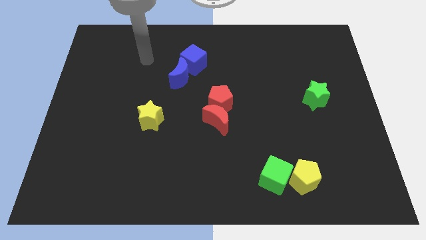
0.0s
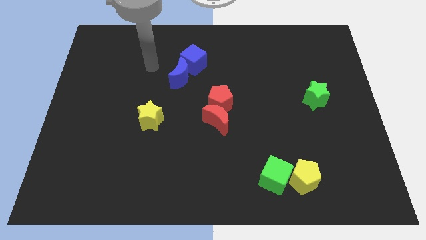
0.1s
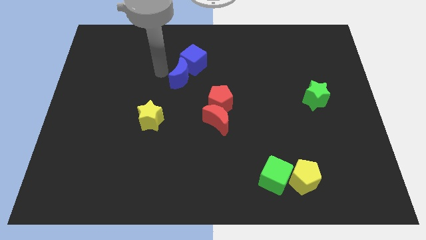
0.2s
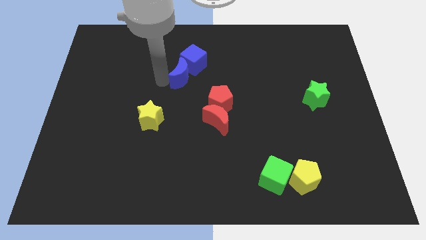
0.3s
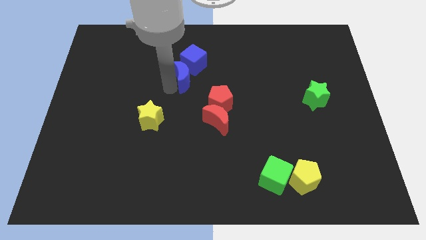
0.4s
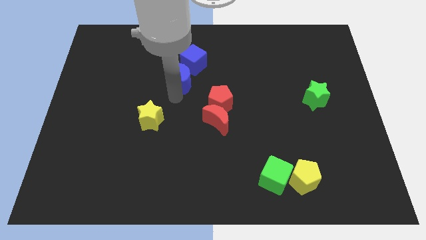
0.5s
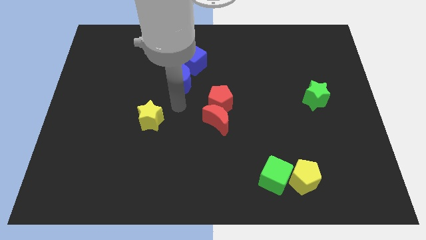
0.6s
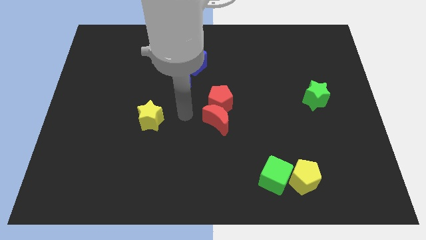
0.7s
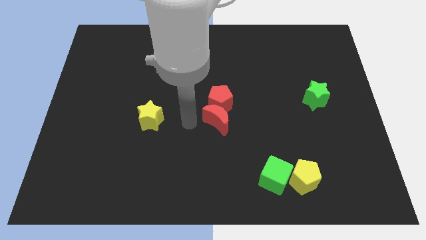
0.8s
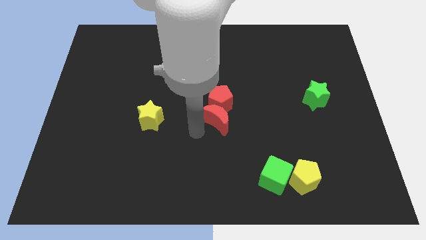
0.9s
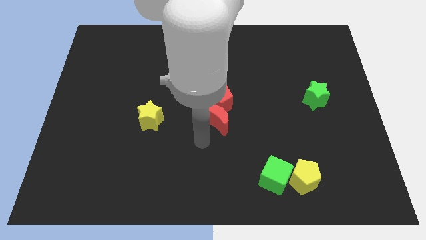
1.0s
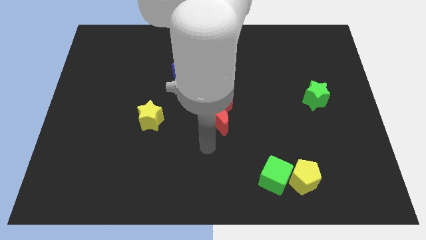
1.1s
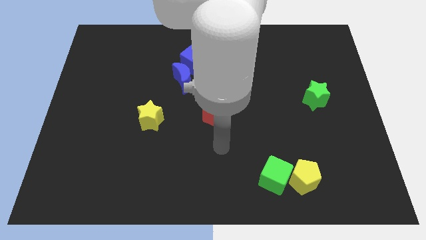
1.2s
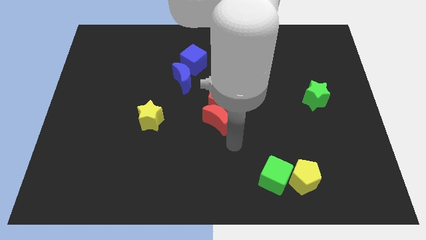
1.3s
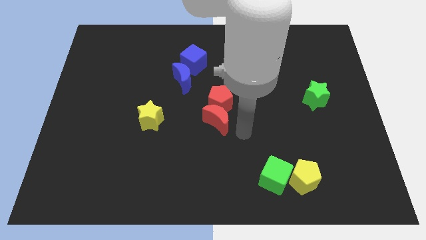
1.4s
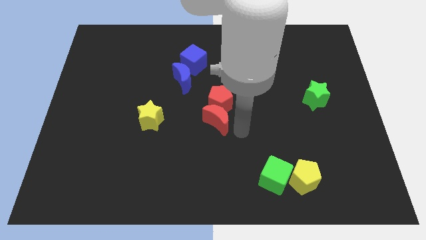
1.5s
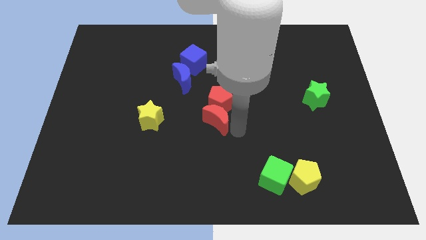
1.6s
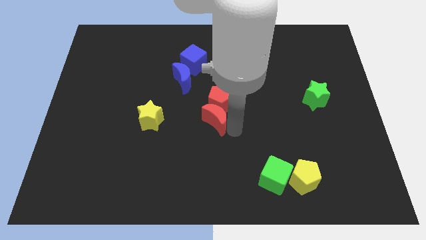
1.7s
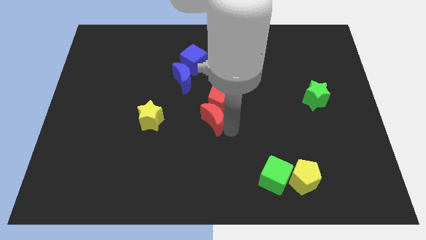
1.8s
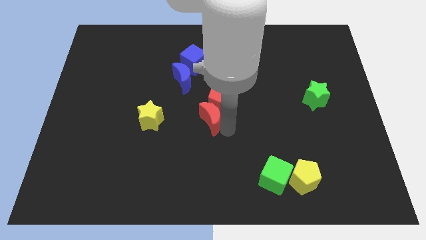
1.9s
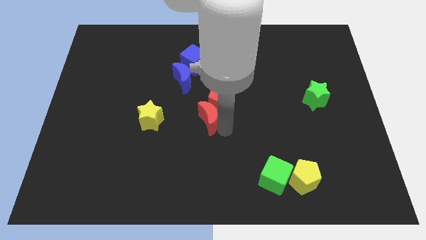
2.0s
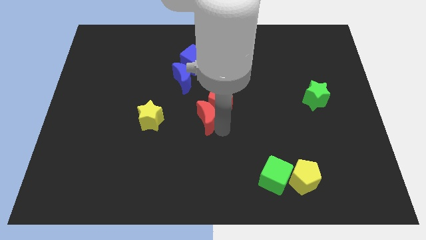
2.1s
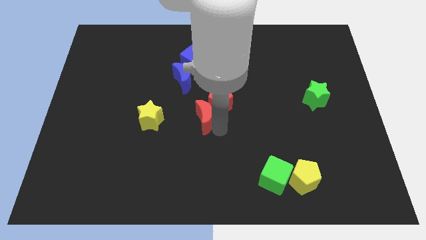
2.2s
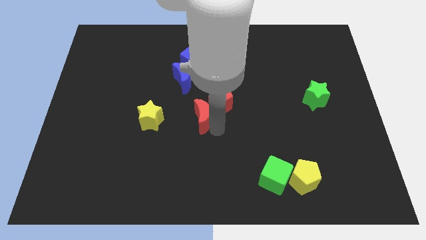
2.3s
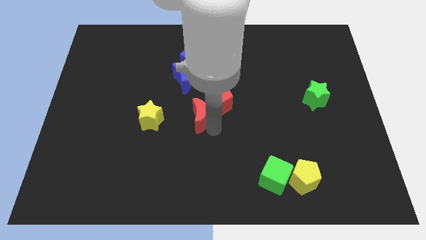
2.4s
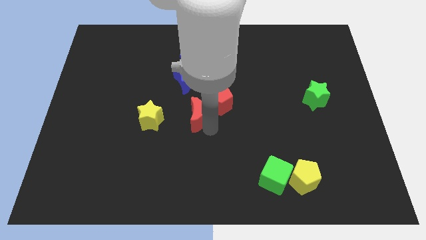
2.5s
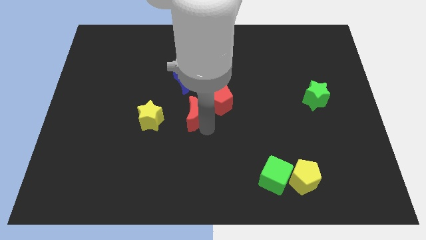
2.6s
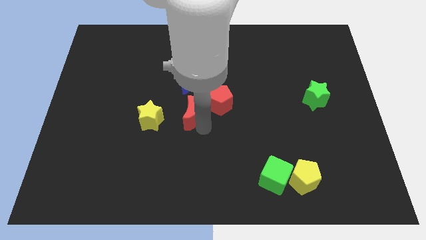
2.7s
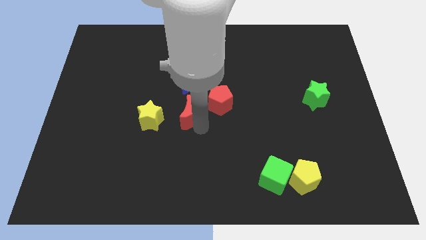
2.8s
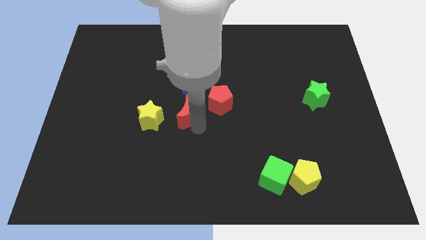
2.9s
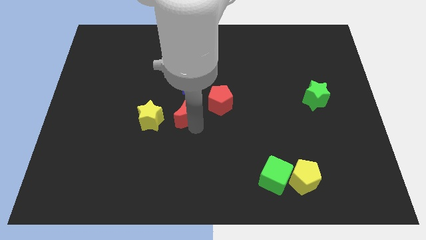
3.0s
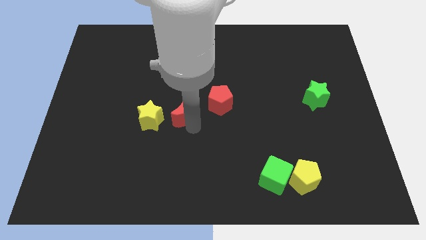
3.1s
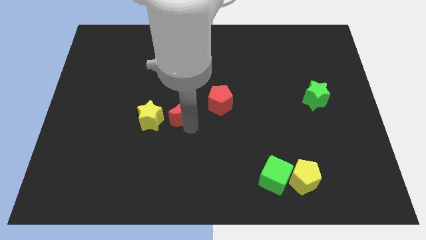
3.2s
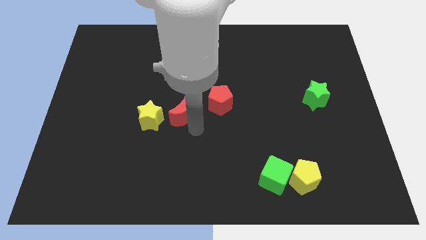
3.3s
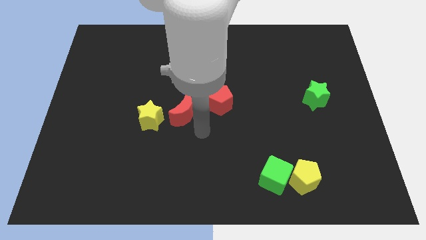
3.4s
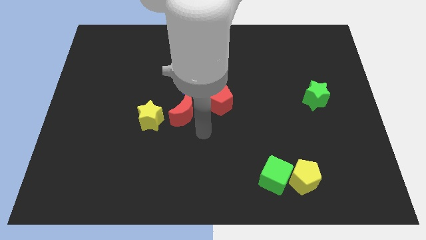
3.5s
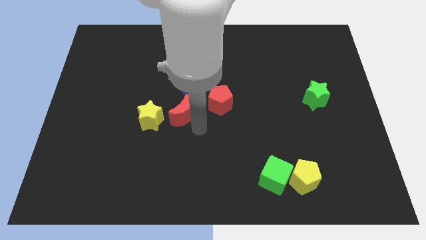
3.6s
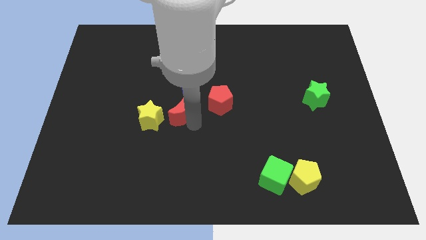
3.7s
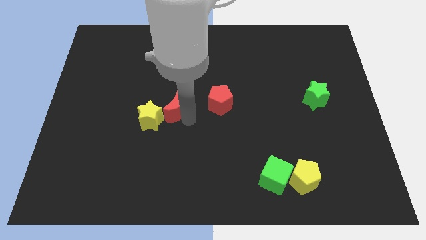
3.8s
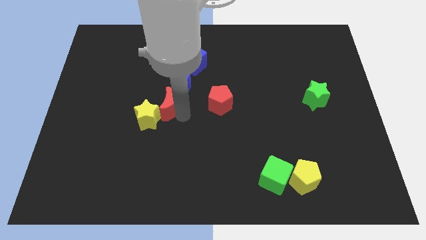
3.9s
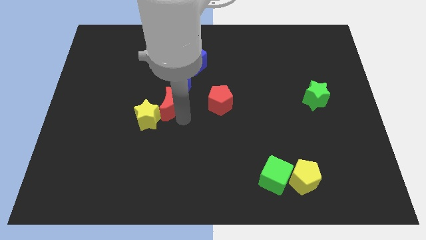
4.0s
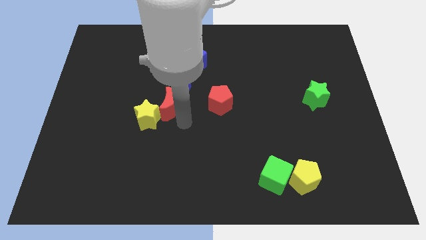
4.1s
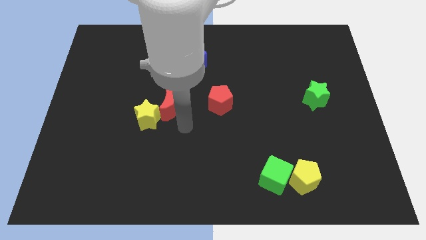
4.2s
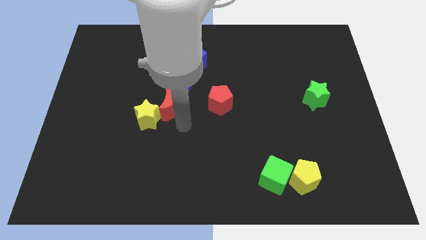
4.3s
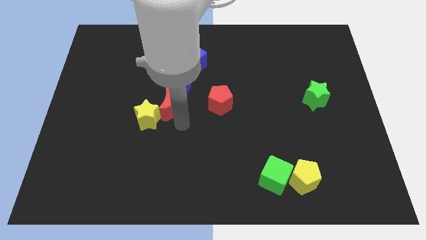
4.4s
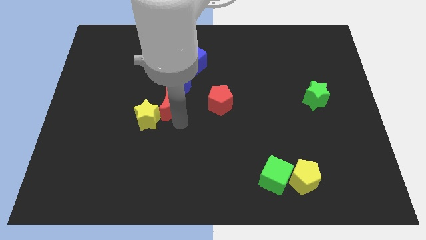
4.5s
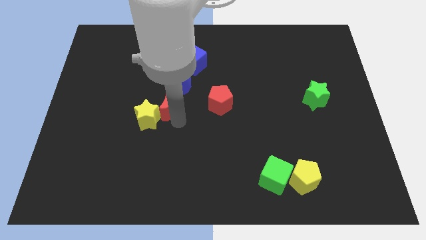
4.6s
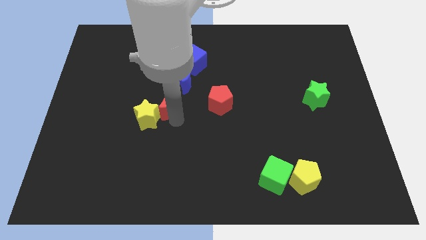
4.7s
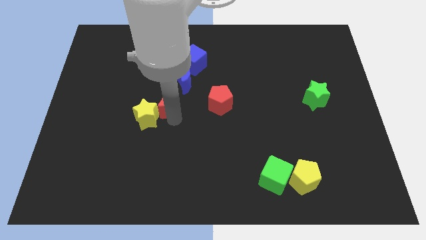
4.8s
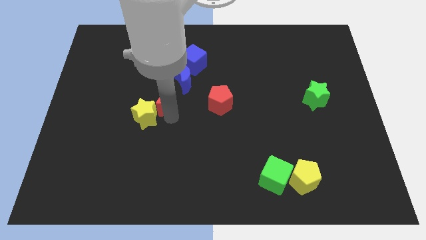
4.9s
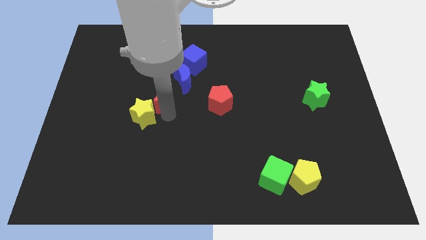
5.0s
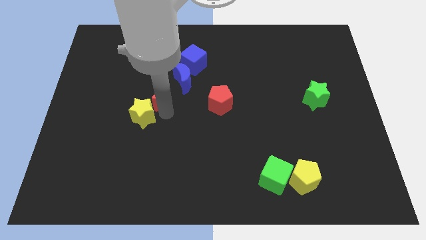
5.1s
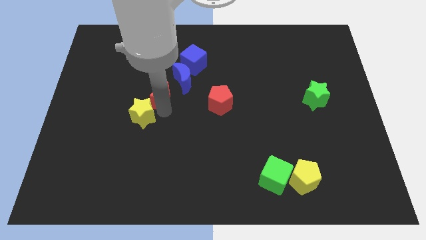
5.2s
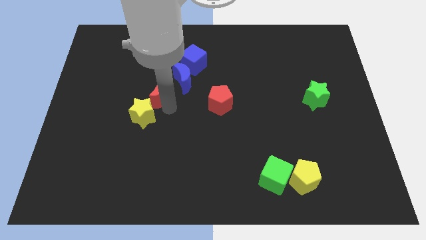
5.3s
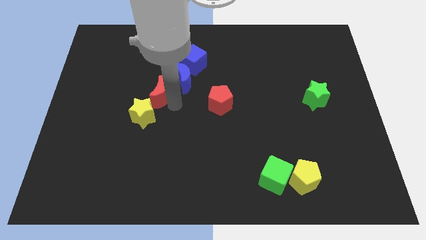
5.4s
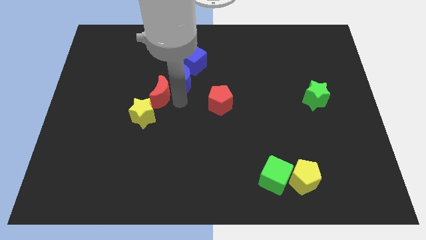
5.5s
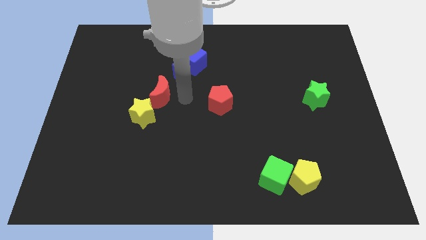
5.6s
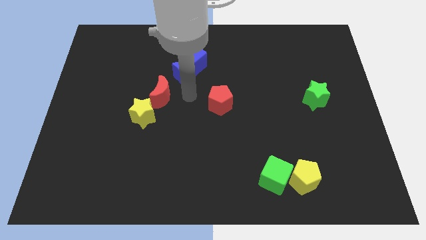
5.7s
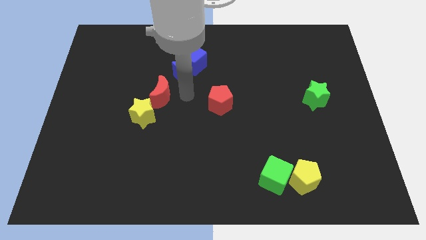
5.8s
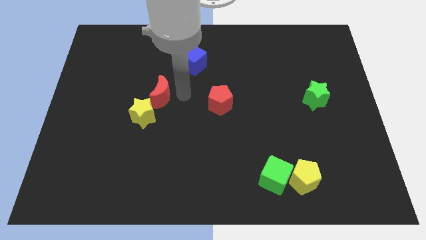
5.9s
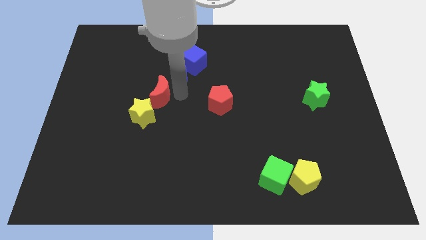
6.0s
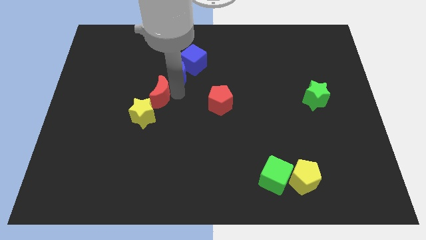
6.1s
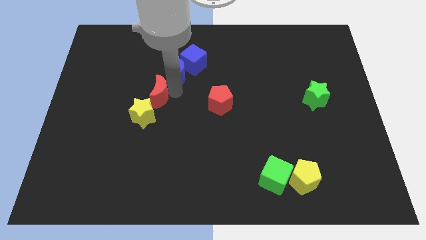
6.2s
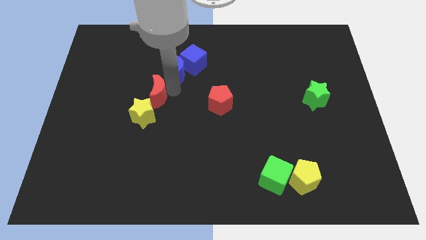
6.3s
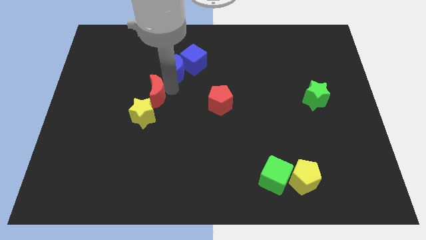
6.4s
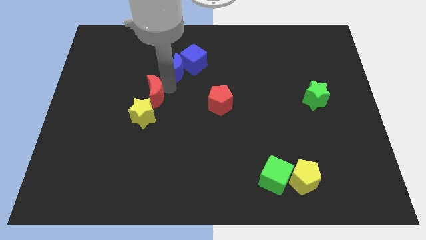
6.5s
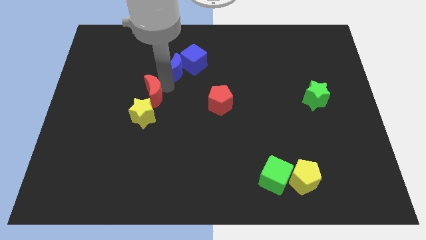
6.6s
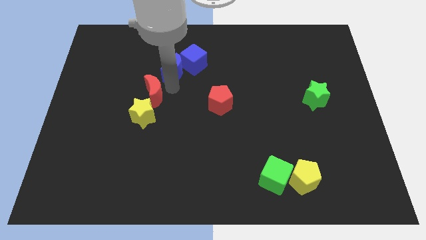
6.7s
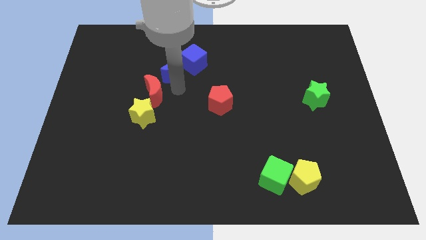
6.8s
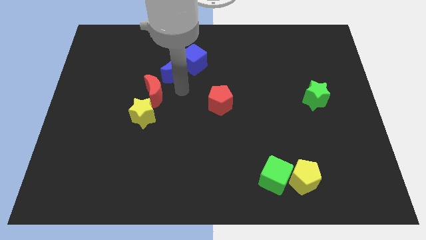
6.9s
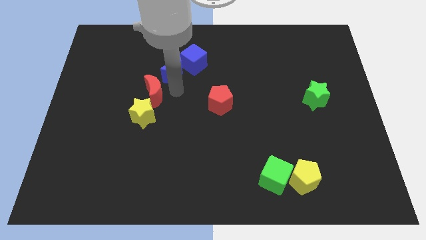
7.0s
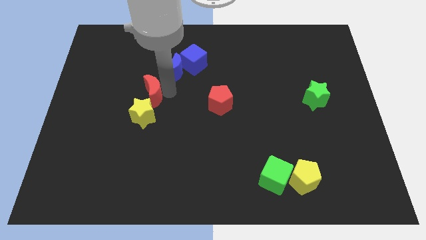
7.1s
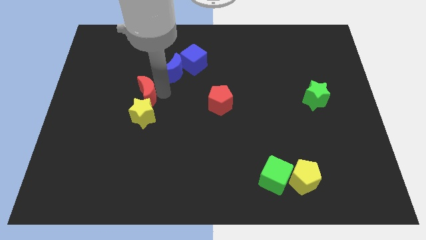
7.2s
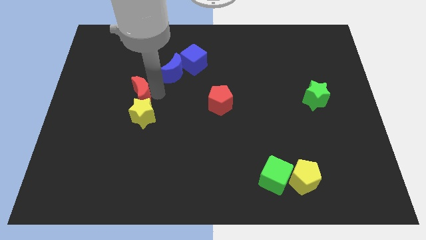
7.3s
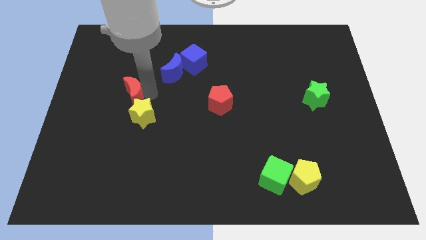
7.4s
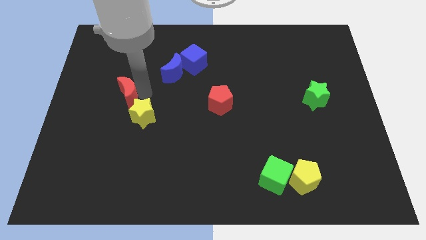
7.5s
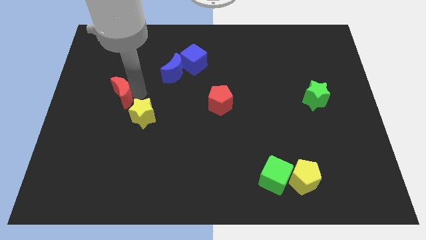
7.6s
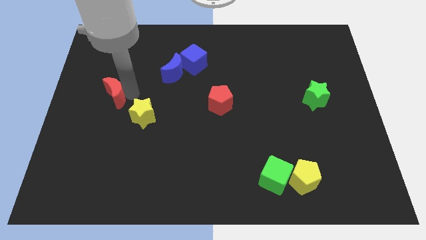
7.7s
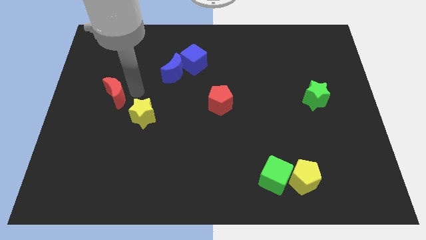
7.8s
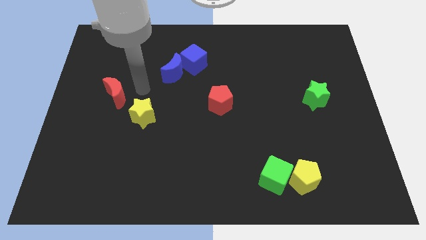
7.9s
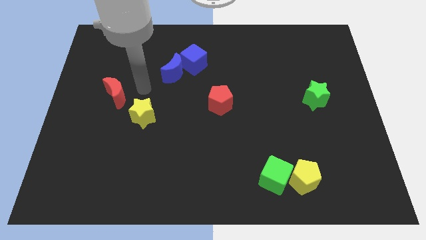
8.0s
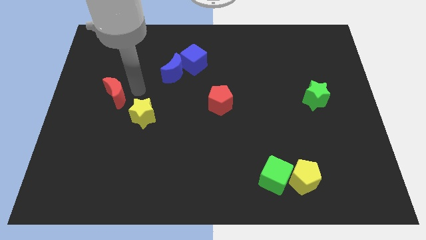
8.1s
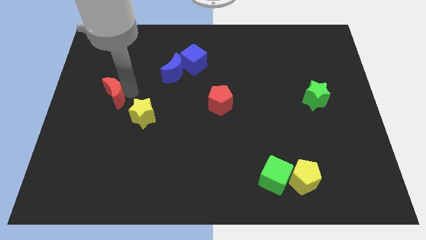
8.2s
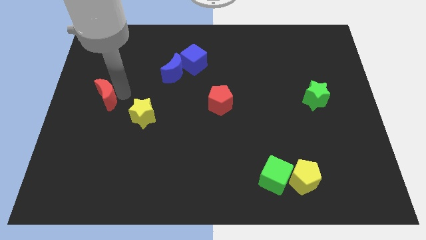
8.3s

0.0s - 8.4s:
slide the red moon to the left side
